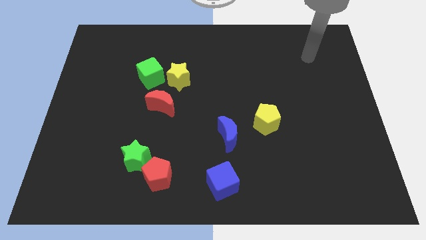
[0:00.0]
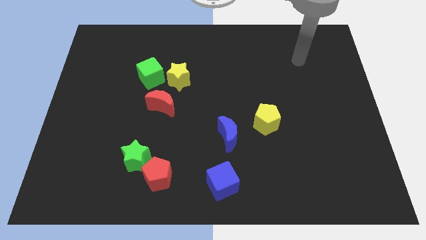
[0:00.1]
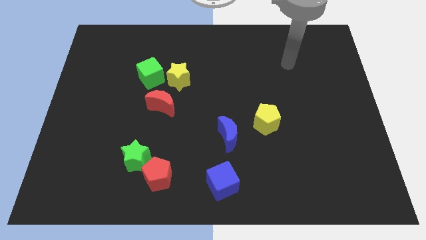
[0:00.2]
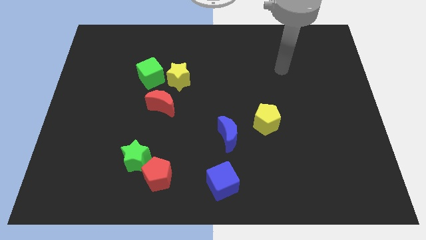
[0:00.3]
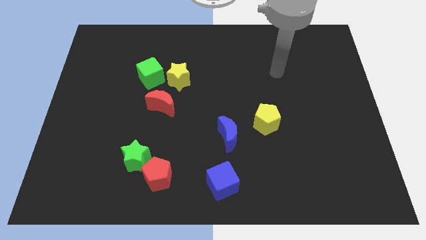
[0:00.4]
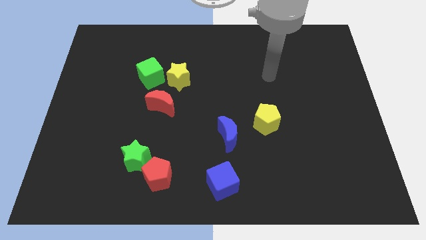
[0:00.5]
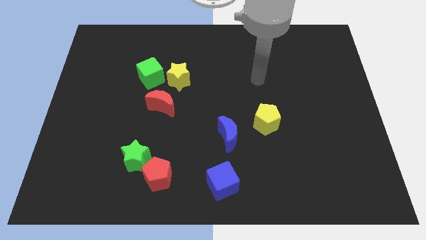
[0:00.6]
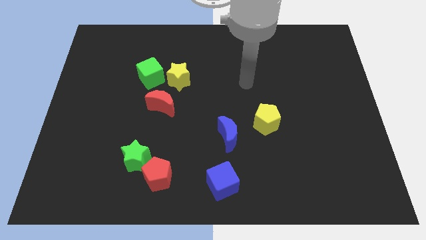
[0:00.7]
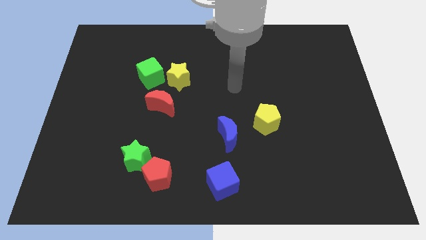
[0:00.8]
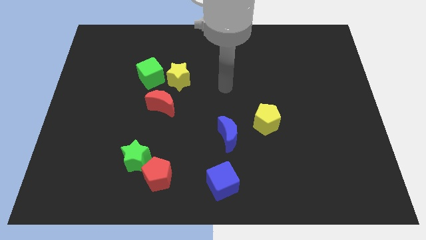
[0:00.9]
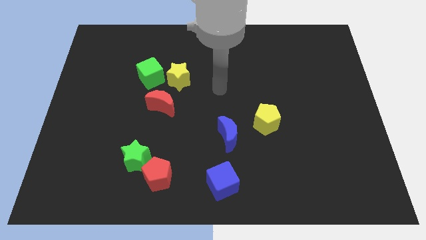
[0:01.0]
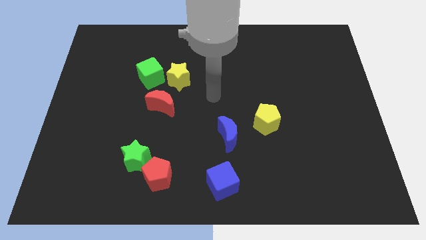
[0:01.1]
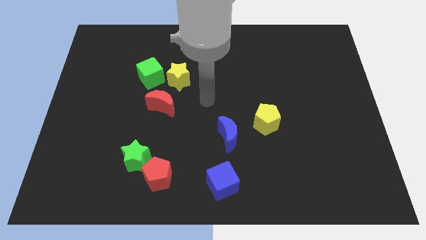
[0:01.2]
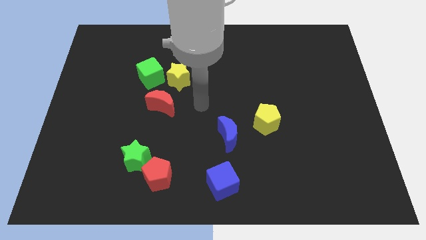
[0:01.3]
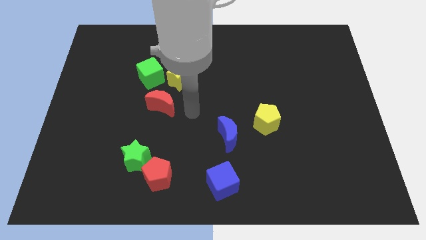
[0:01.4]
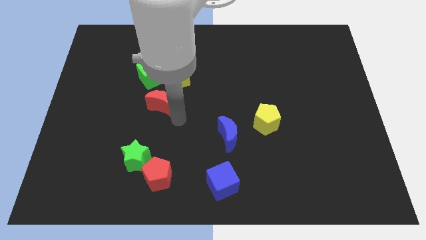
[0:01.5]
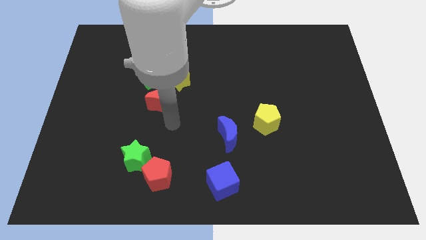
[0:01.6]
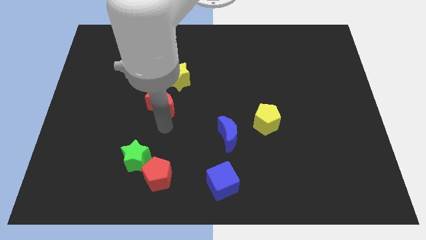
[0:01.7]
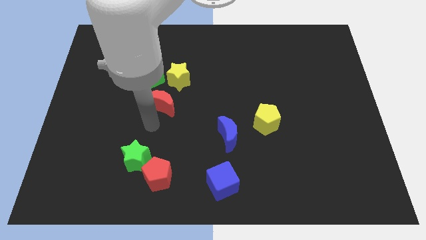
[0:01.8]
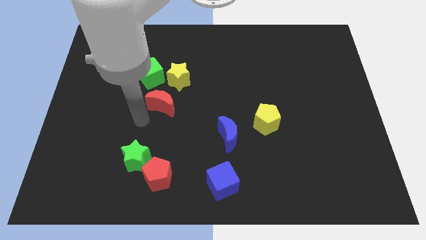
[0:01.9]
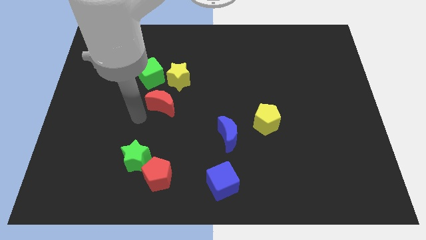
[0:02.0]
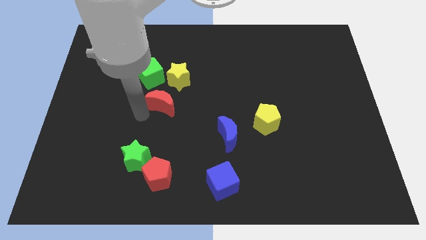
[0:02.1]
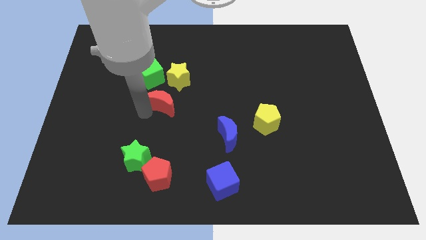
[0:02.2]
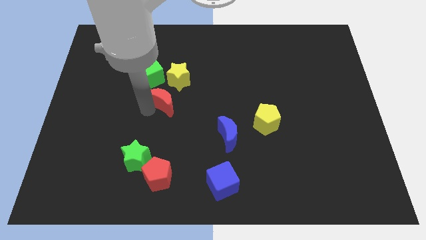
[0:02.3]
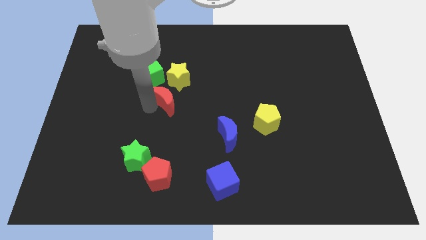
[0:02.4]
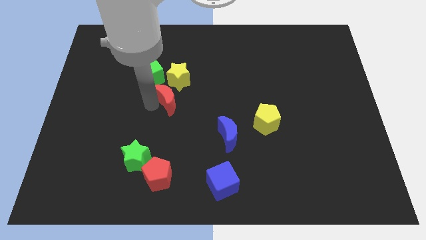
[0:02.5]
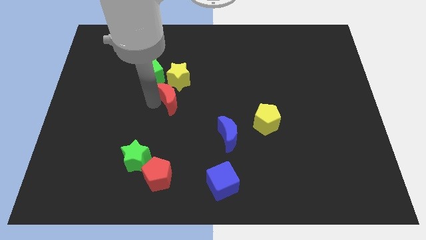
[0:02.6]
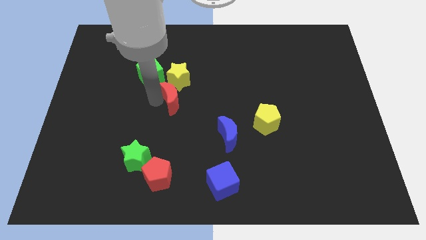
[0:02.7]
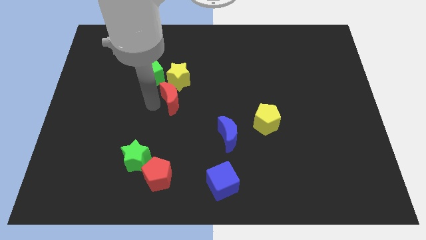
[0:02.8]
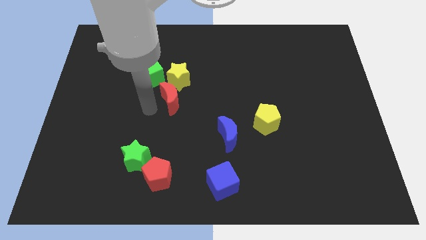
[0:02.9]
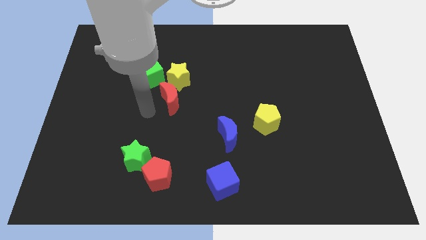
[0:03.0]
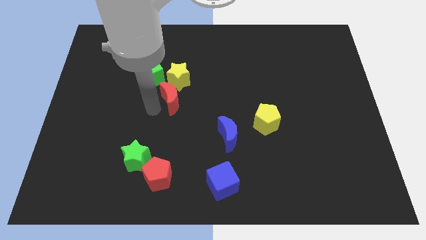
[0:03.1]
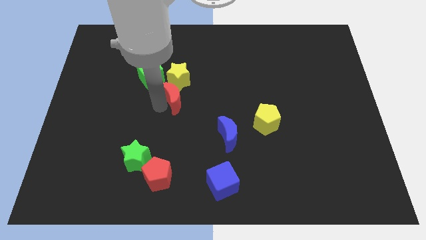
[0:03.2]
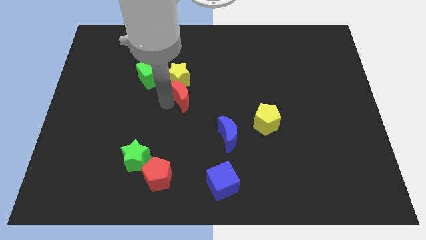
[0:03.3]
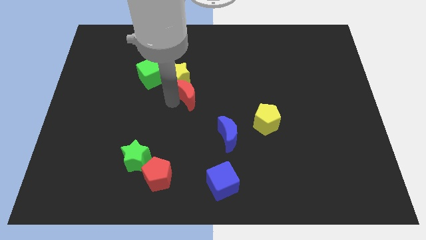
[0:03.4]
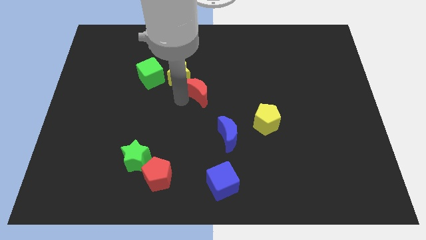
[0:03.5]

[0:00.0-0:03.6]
push the red moon somewhat upwards and then right

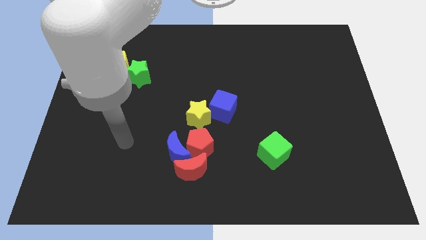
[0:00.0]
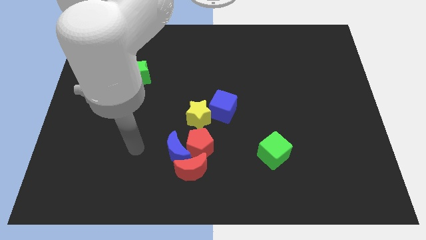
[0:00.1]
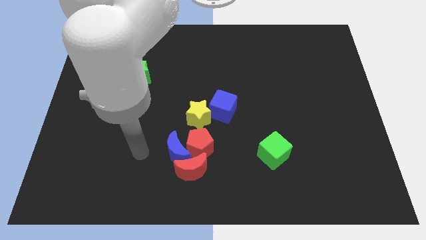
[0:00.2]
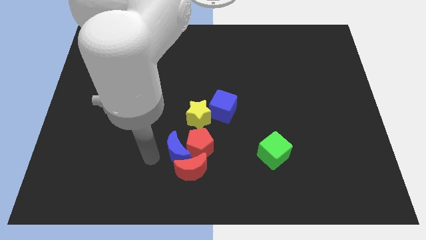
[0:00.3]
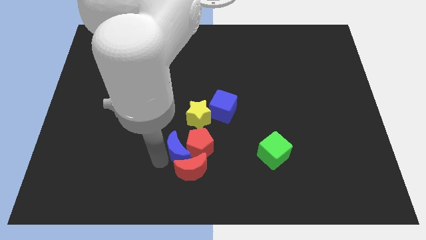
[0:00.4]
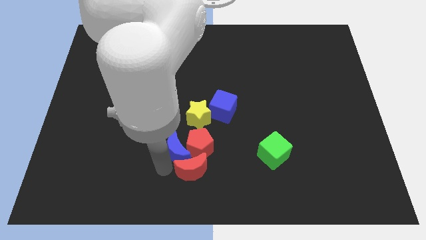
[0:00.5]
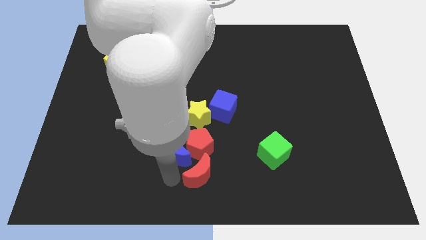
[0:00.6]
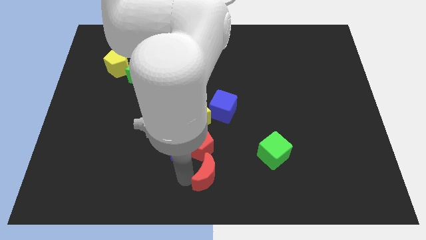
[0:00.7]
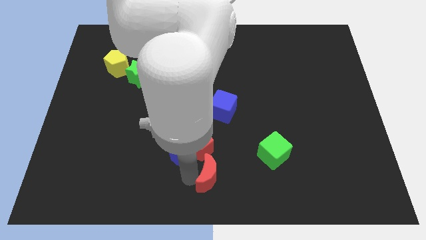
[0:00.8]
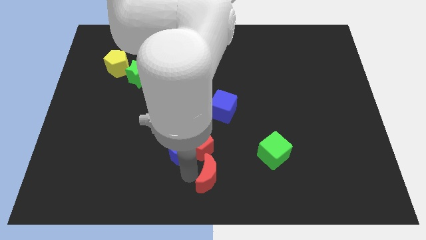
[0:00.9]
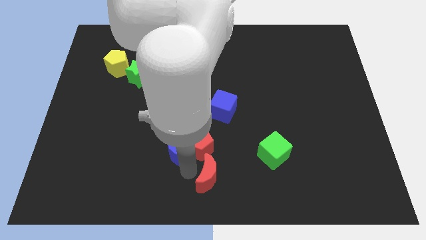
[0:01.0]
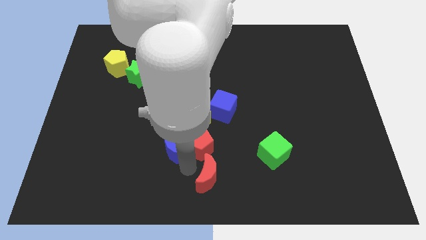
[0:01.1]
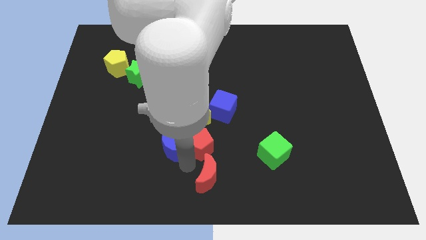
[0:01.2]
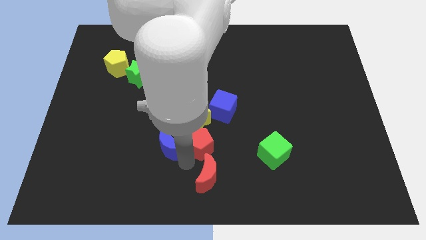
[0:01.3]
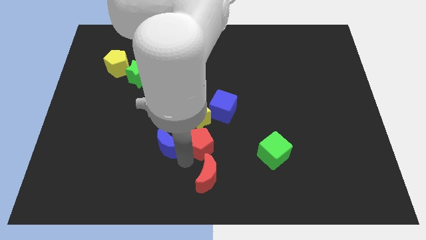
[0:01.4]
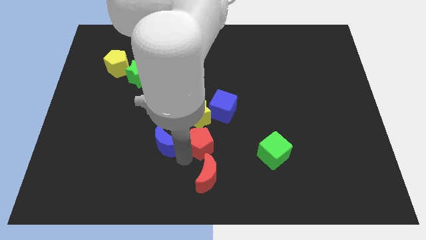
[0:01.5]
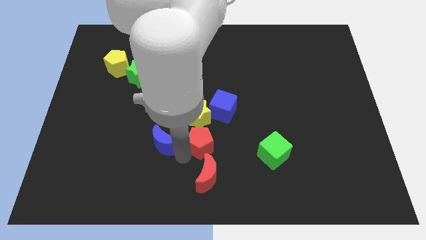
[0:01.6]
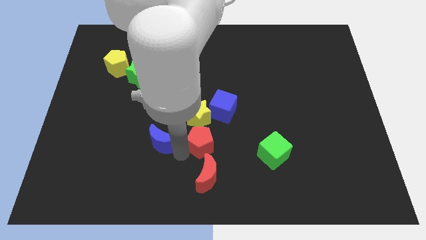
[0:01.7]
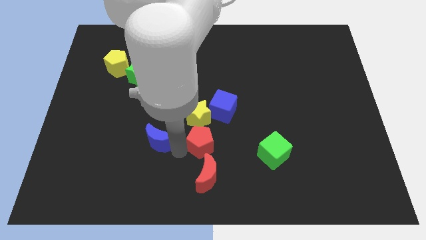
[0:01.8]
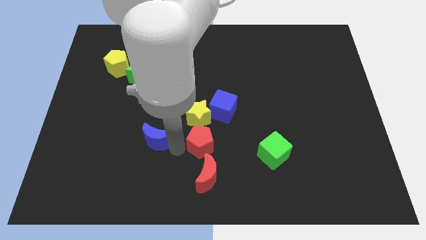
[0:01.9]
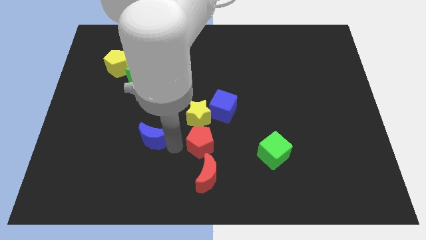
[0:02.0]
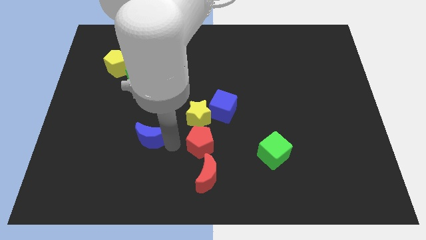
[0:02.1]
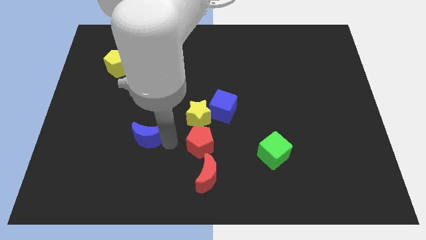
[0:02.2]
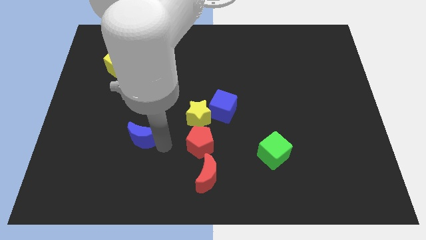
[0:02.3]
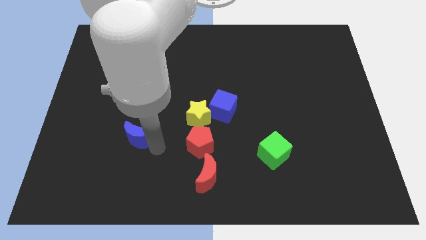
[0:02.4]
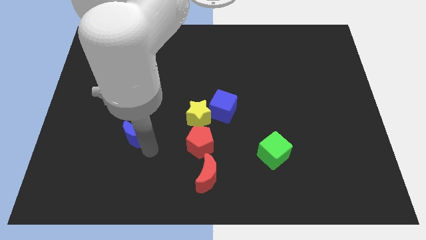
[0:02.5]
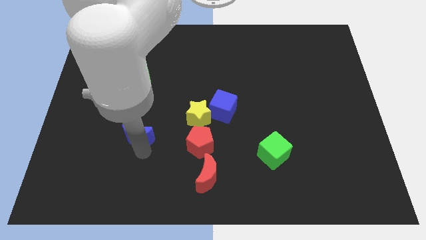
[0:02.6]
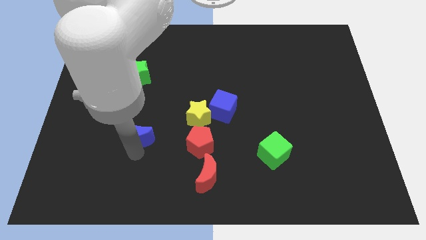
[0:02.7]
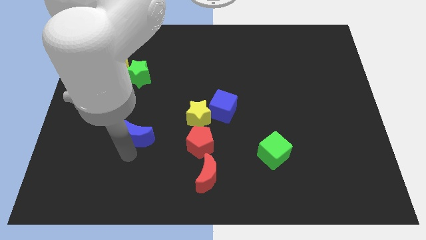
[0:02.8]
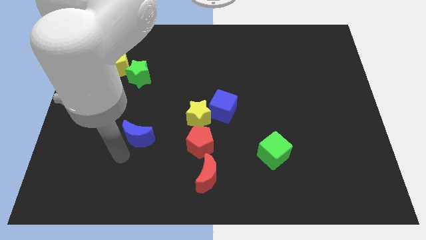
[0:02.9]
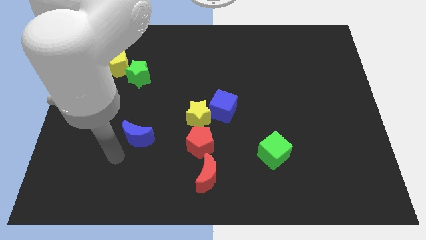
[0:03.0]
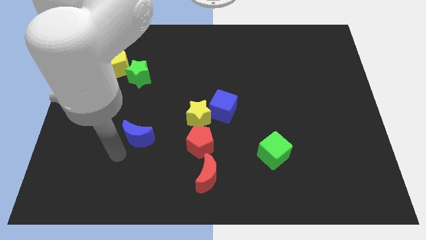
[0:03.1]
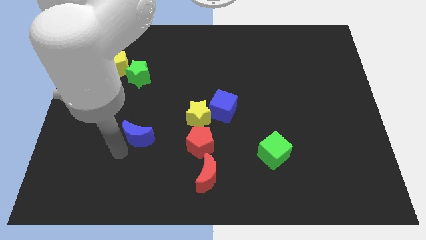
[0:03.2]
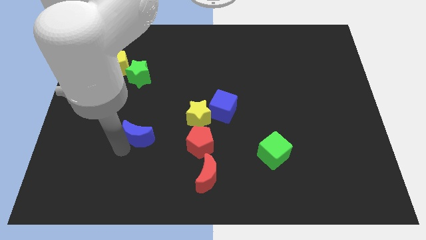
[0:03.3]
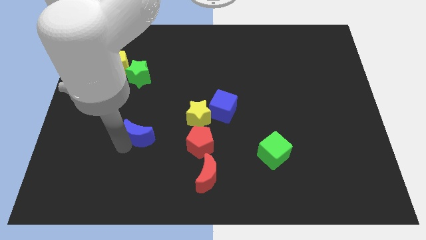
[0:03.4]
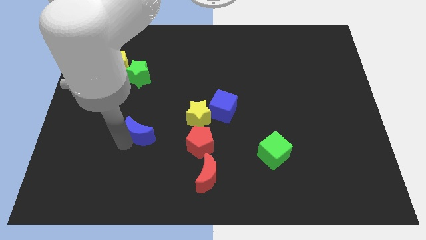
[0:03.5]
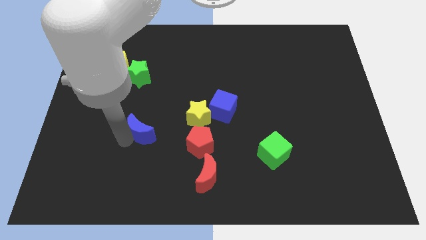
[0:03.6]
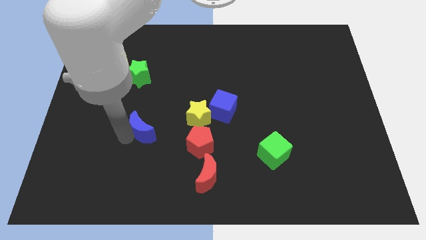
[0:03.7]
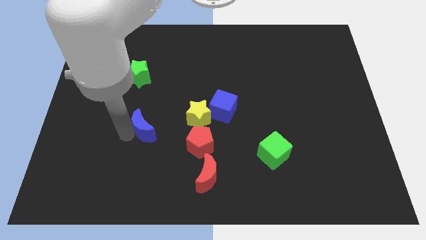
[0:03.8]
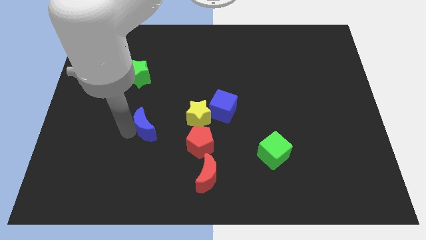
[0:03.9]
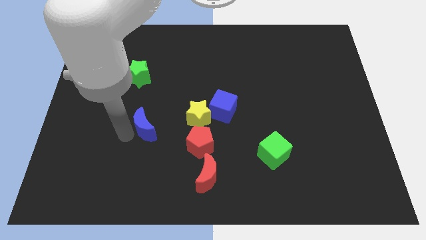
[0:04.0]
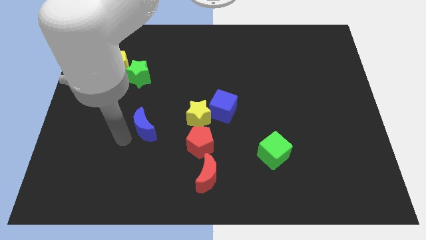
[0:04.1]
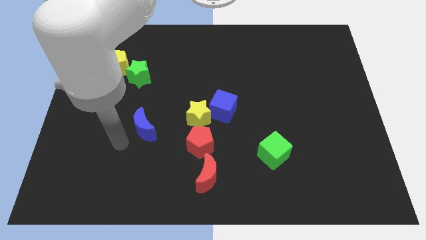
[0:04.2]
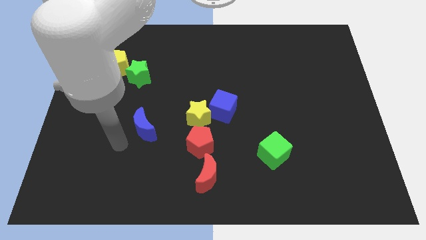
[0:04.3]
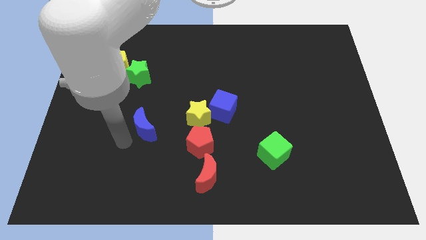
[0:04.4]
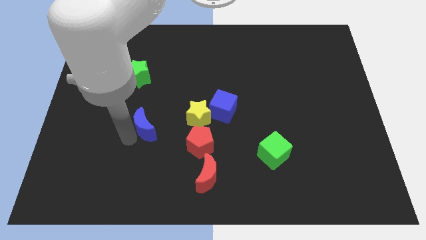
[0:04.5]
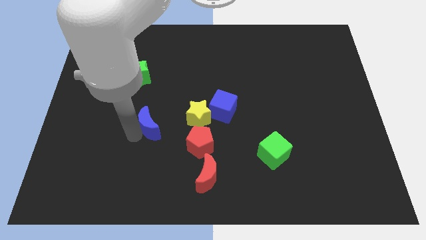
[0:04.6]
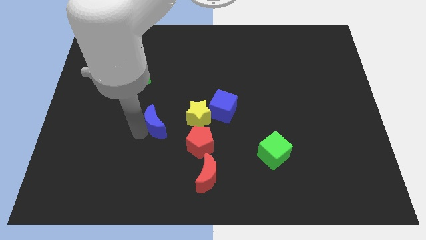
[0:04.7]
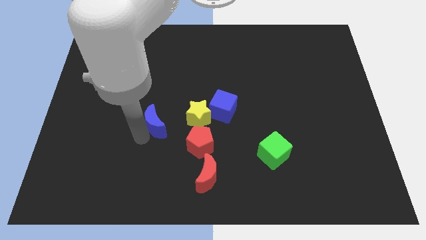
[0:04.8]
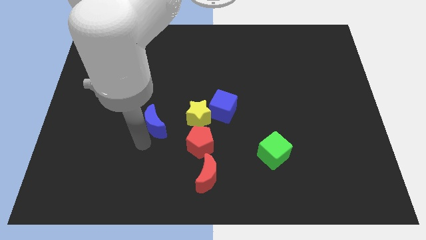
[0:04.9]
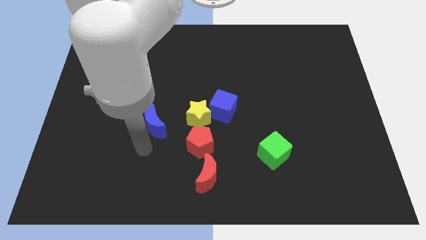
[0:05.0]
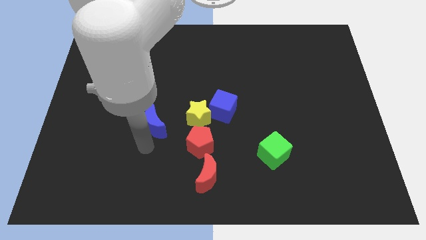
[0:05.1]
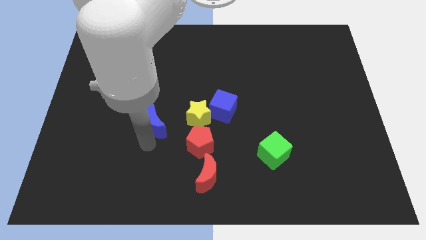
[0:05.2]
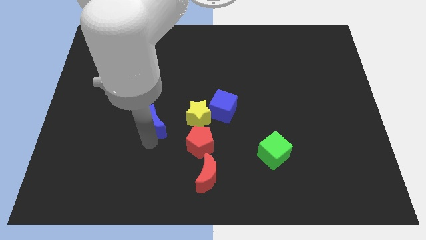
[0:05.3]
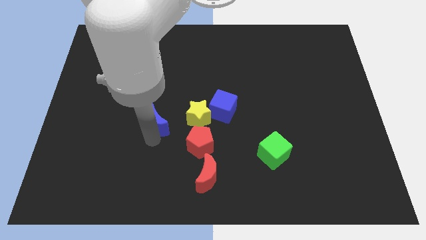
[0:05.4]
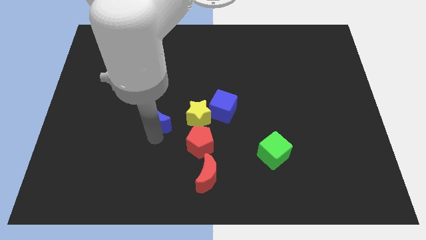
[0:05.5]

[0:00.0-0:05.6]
slightly push the blue moon upwards
